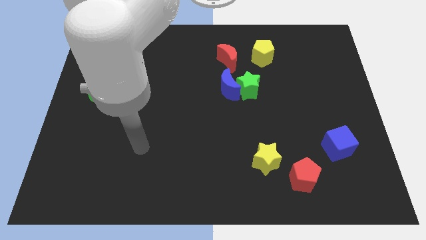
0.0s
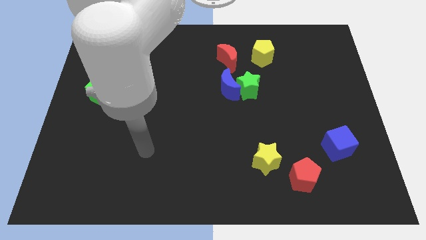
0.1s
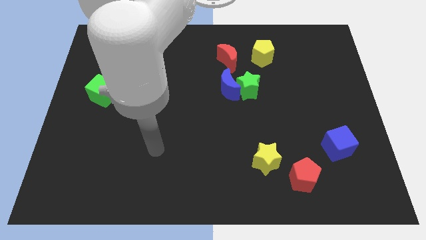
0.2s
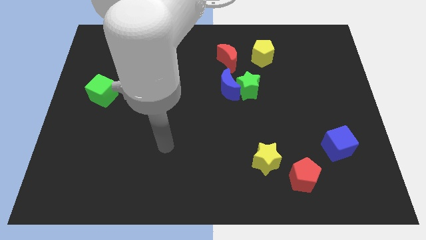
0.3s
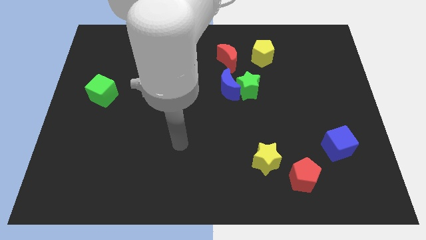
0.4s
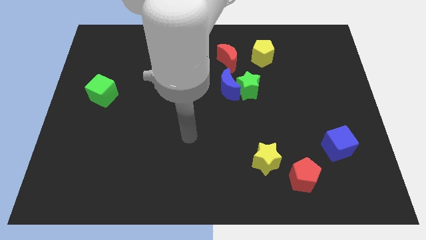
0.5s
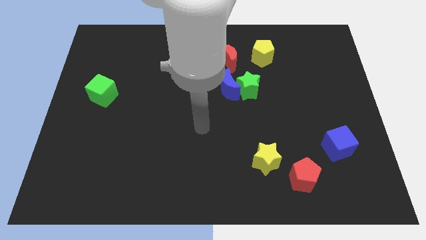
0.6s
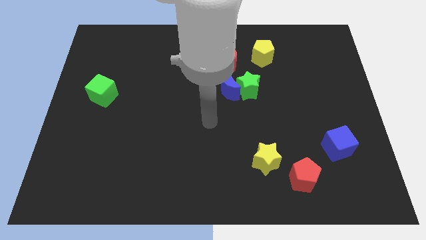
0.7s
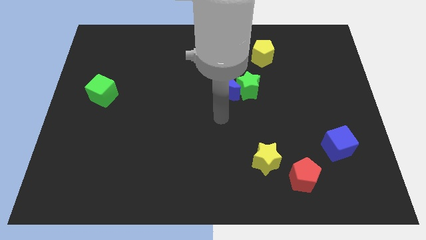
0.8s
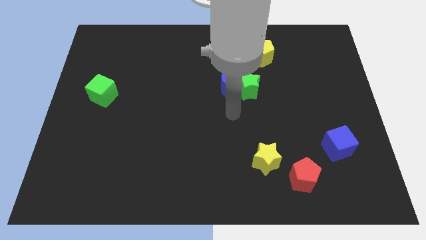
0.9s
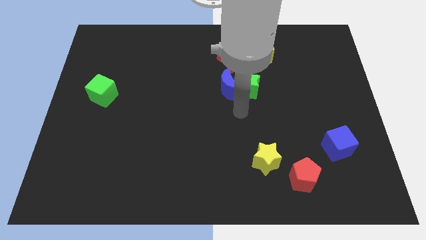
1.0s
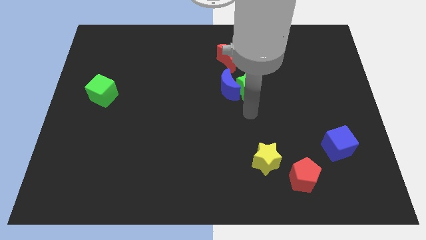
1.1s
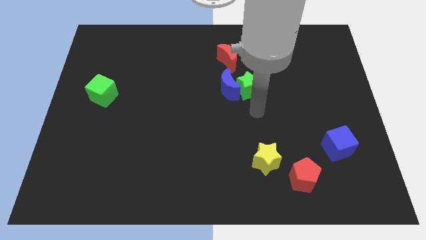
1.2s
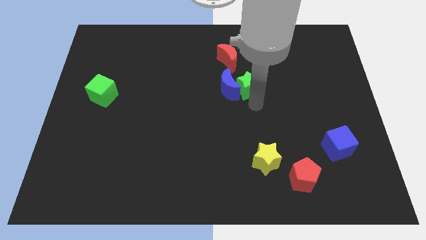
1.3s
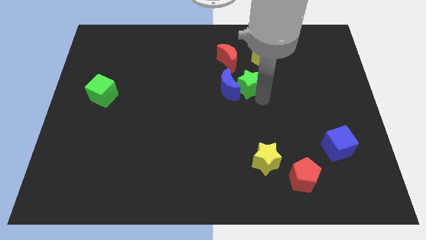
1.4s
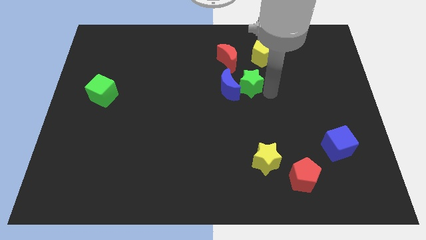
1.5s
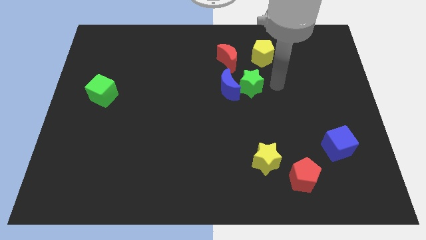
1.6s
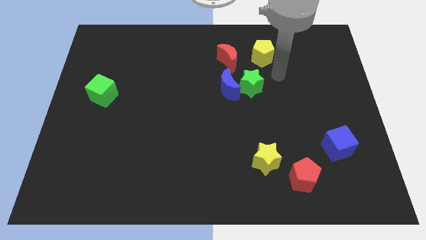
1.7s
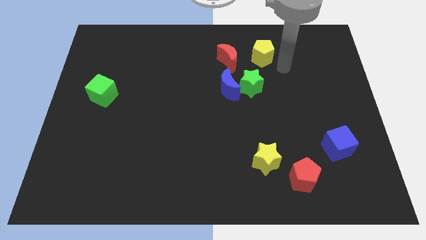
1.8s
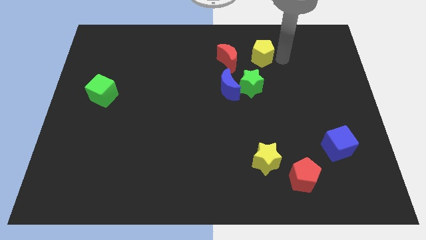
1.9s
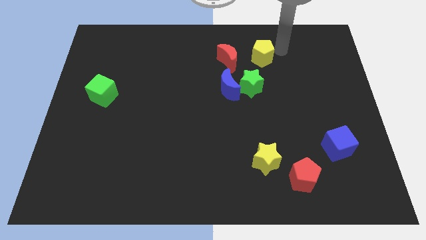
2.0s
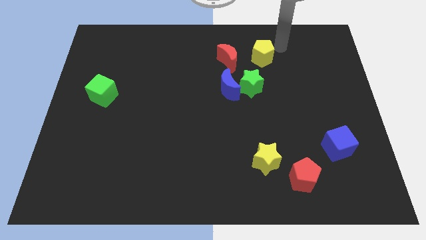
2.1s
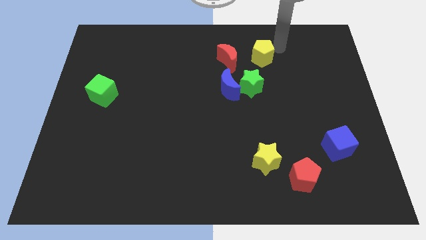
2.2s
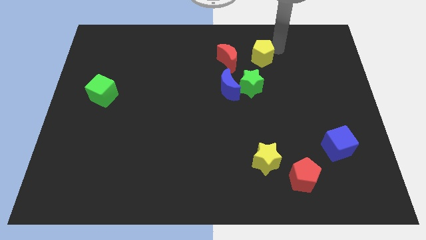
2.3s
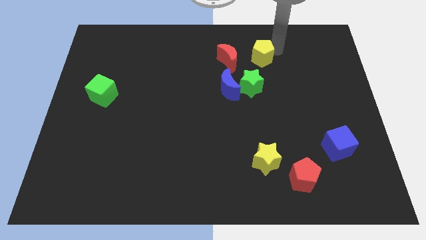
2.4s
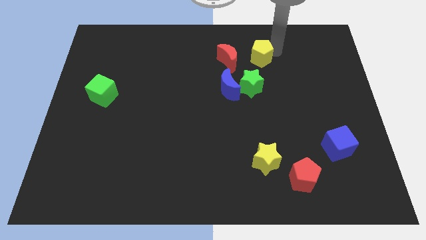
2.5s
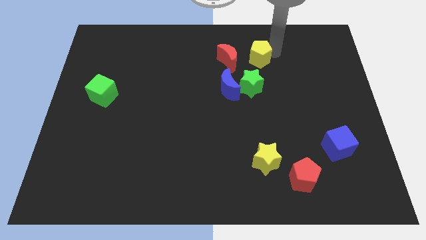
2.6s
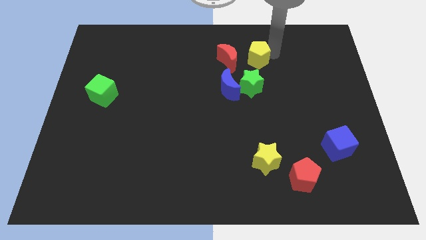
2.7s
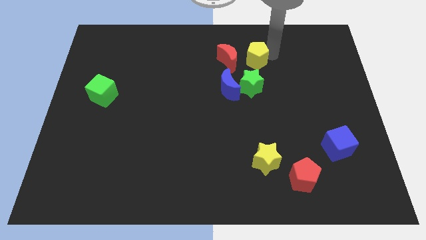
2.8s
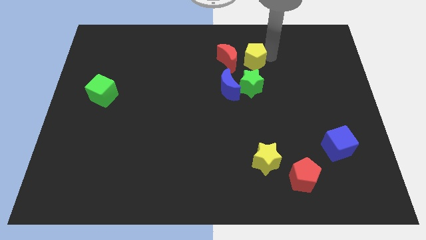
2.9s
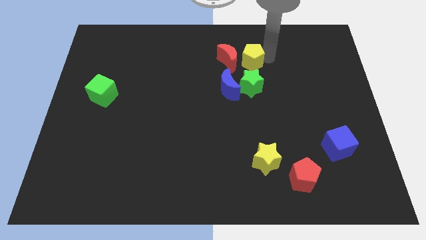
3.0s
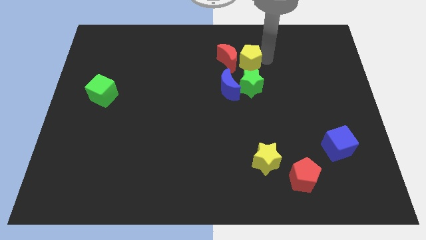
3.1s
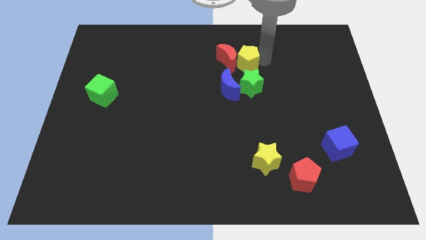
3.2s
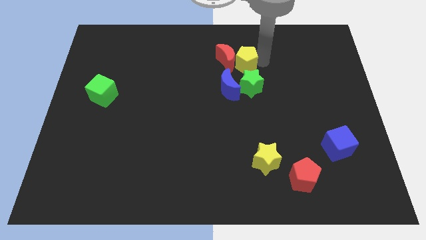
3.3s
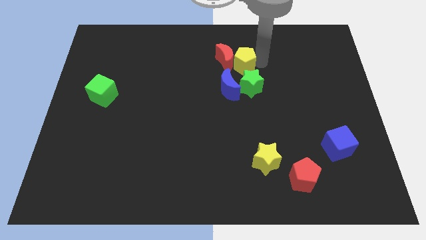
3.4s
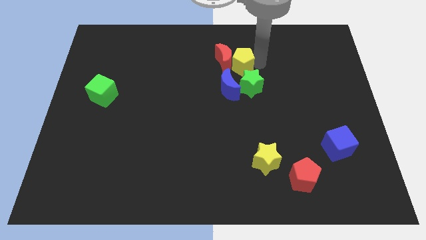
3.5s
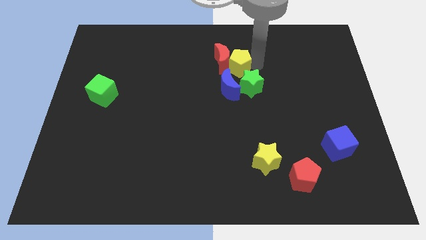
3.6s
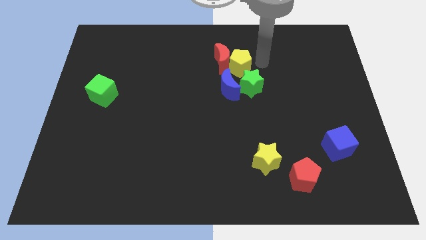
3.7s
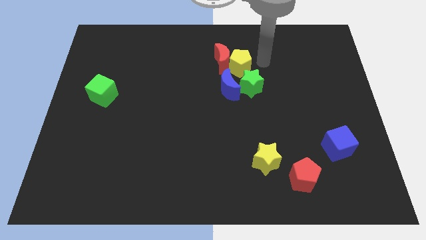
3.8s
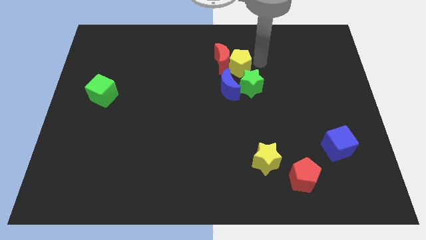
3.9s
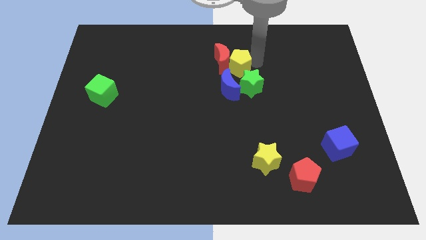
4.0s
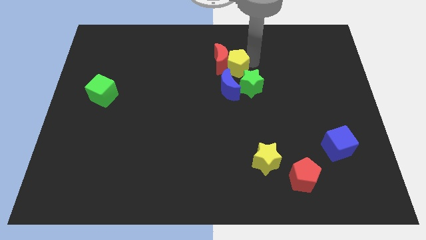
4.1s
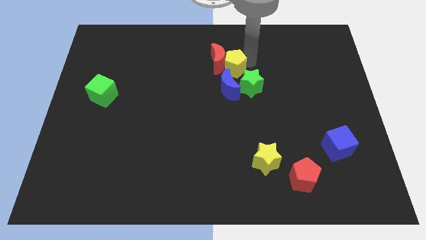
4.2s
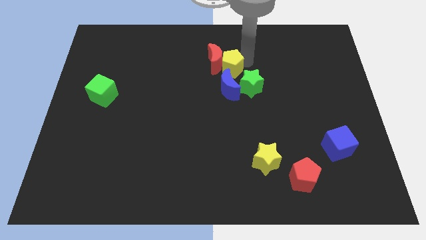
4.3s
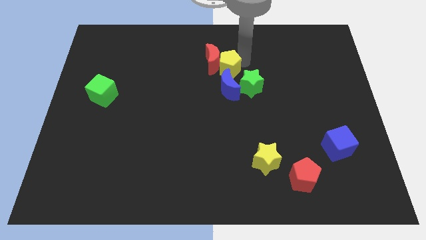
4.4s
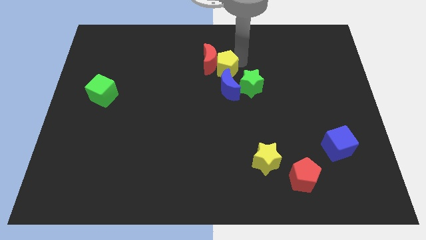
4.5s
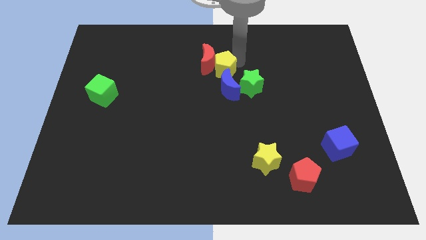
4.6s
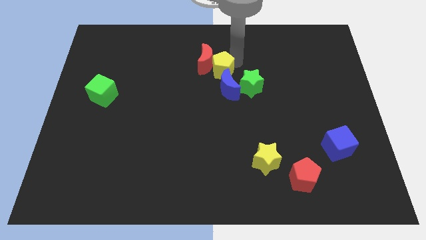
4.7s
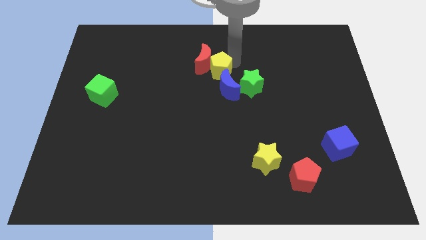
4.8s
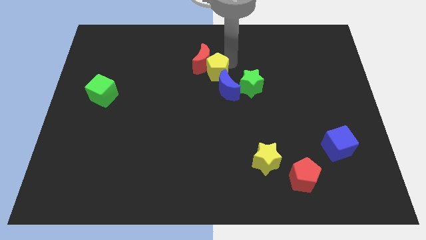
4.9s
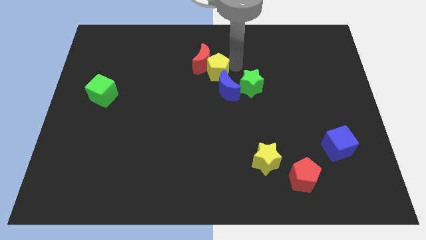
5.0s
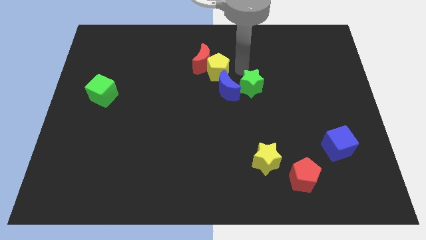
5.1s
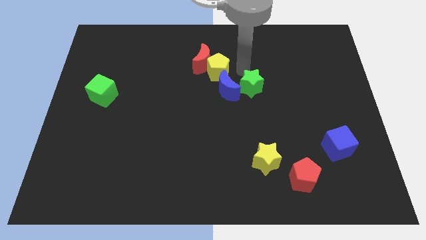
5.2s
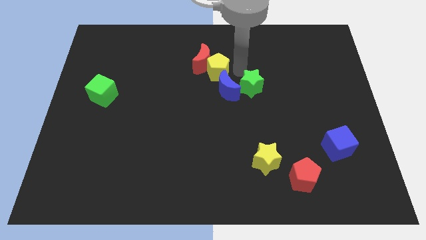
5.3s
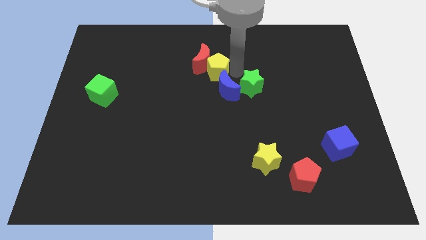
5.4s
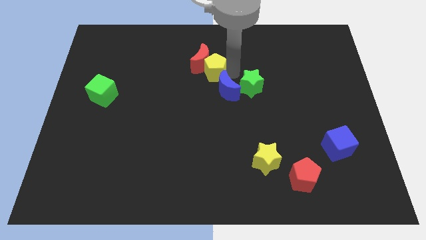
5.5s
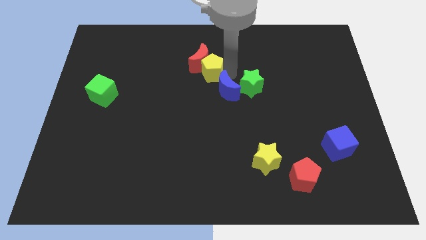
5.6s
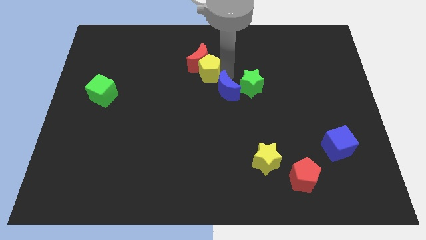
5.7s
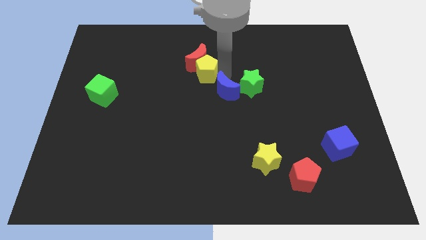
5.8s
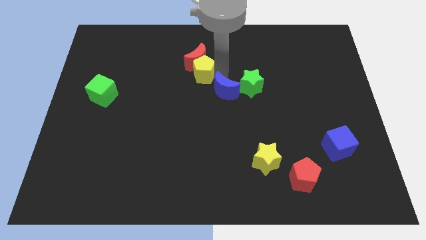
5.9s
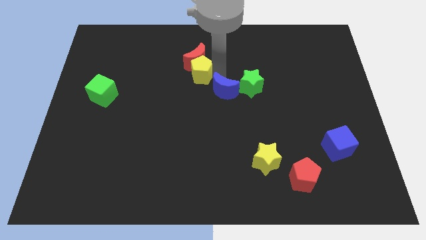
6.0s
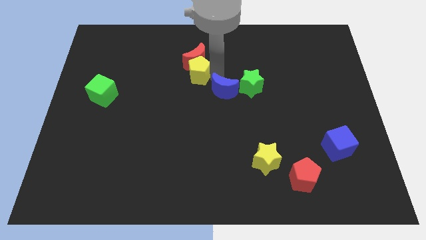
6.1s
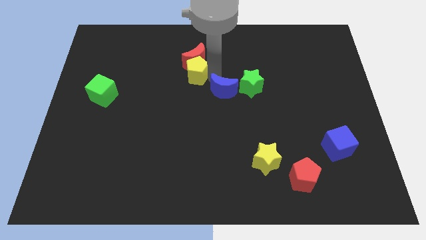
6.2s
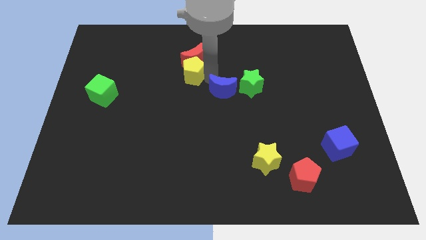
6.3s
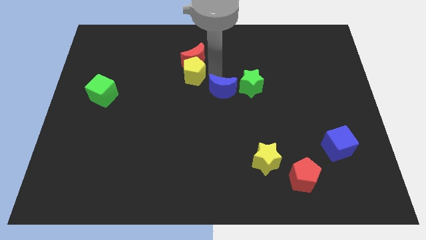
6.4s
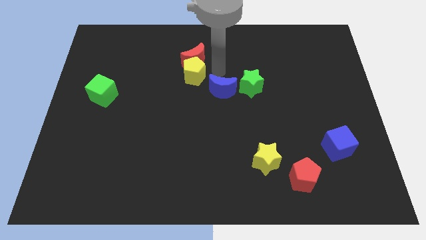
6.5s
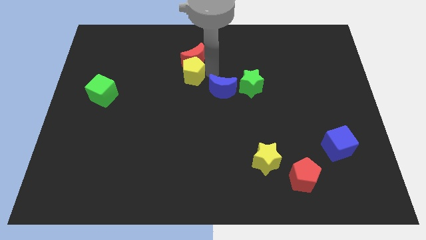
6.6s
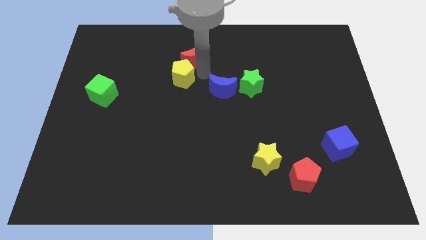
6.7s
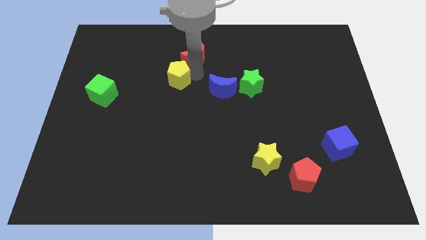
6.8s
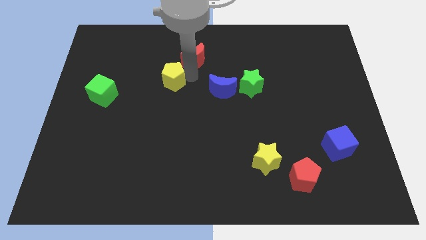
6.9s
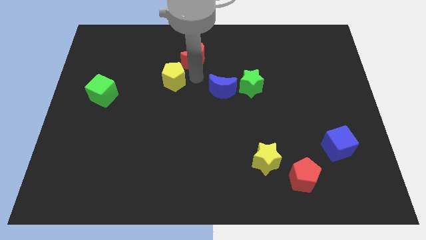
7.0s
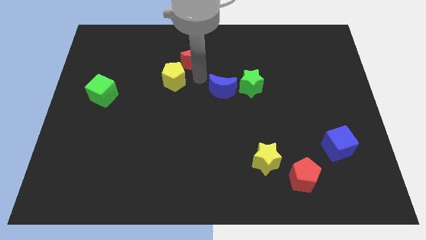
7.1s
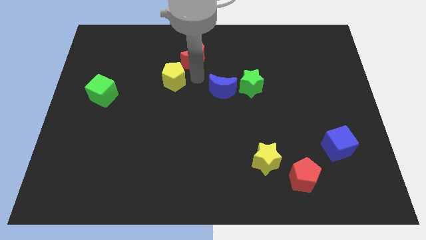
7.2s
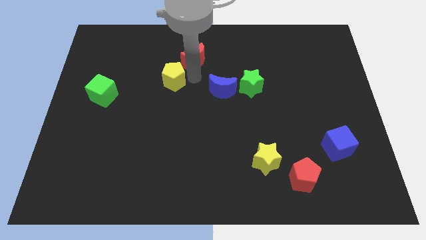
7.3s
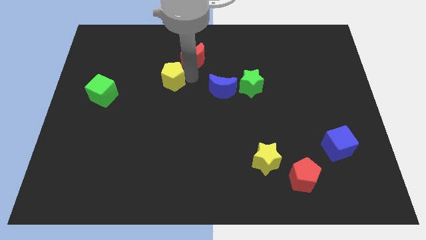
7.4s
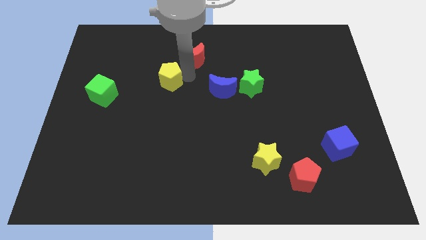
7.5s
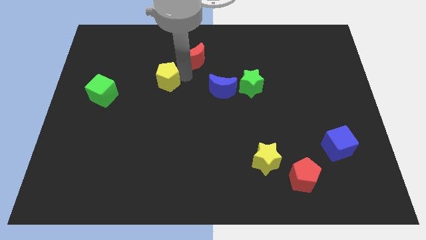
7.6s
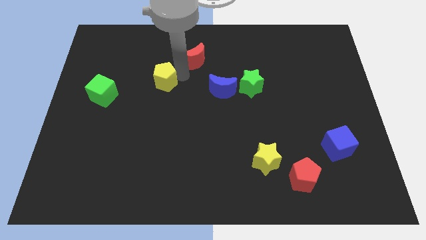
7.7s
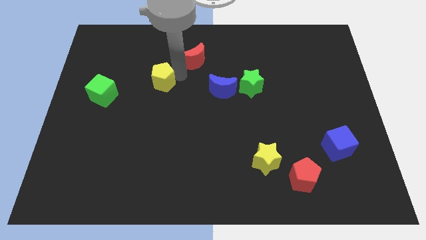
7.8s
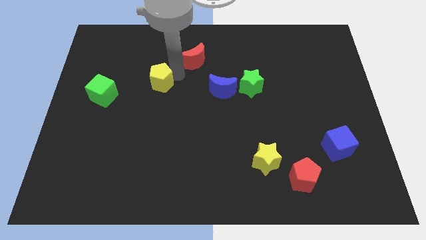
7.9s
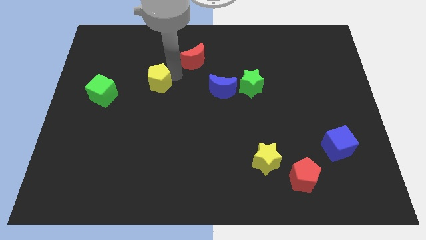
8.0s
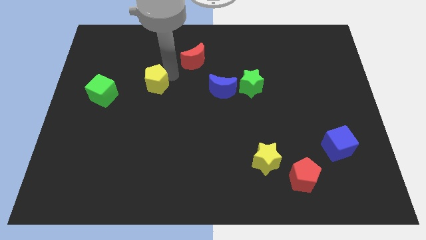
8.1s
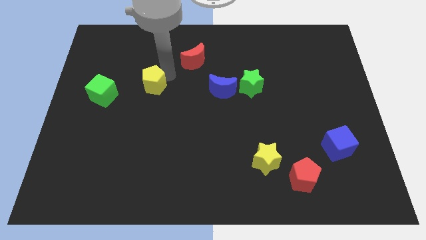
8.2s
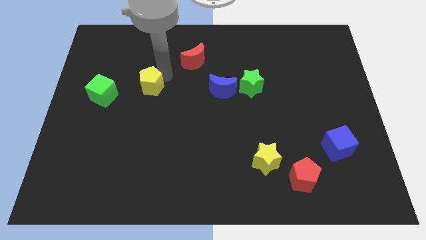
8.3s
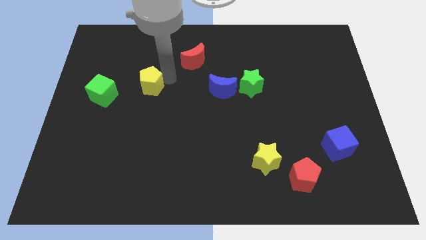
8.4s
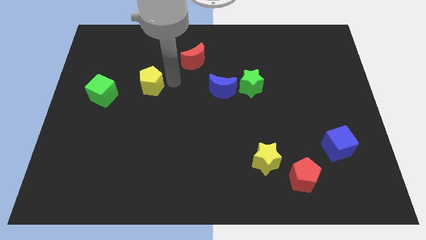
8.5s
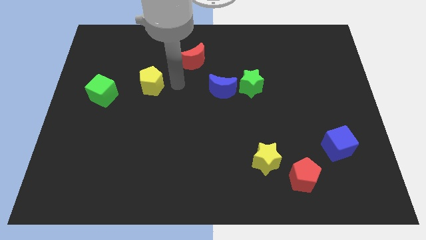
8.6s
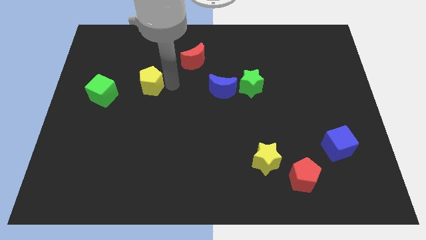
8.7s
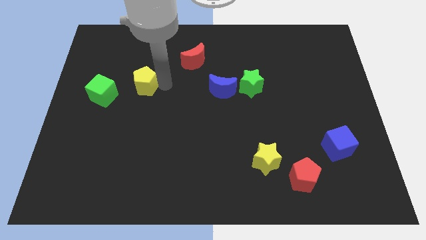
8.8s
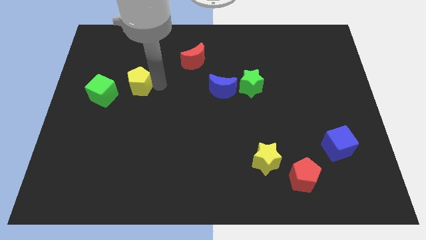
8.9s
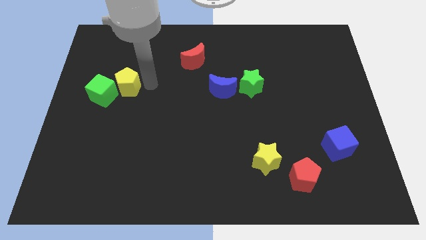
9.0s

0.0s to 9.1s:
move the yellow pentagon close to the green cube
